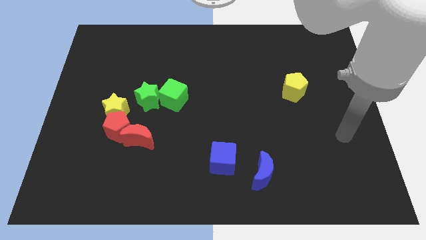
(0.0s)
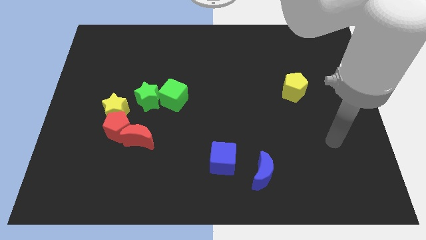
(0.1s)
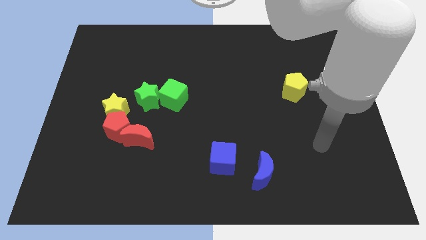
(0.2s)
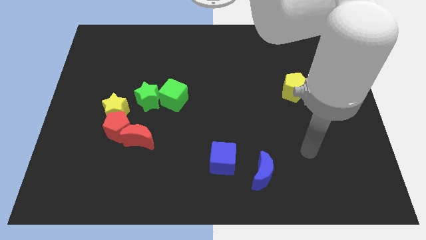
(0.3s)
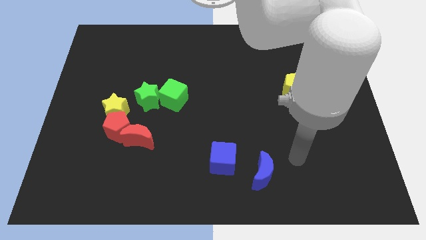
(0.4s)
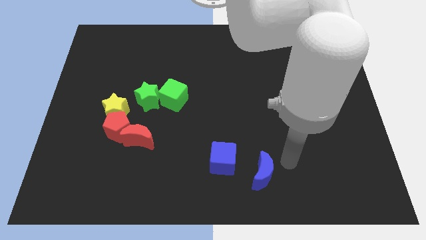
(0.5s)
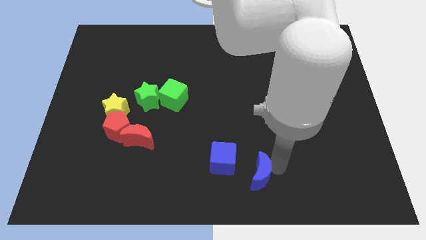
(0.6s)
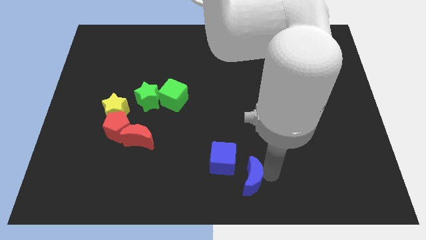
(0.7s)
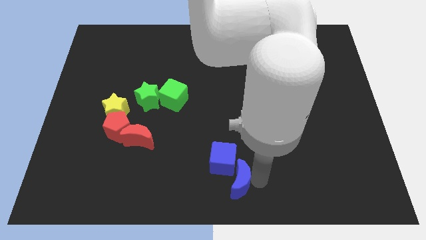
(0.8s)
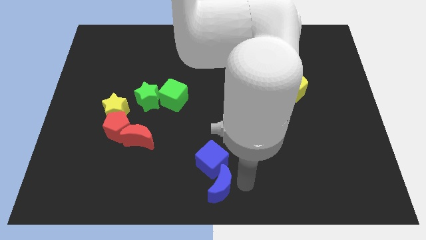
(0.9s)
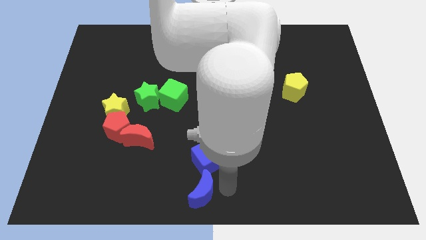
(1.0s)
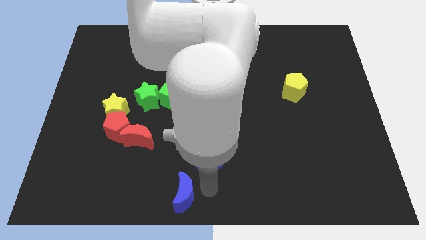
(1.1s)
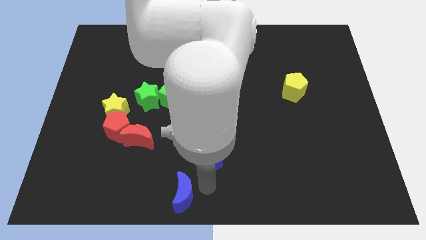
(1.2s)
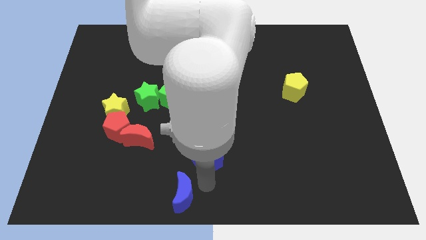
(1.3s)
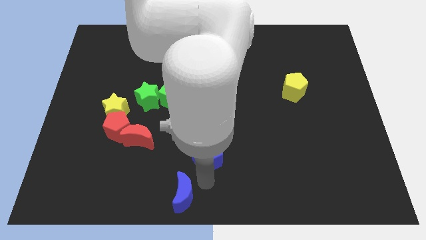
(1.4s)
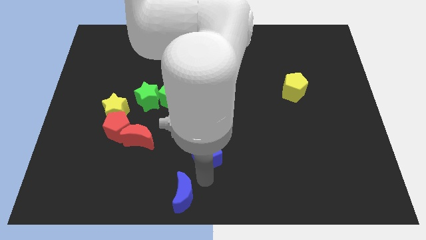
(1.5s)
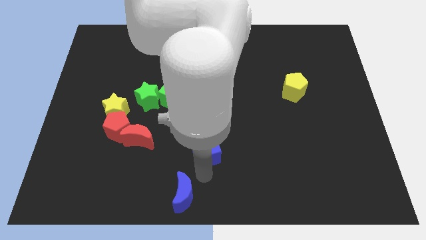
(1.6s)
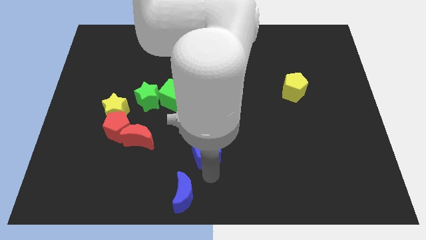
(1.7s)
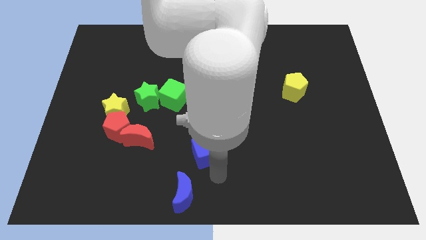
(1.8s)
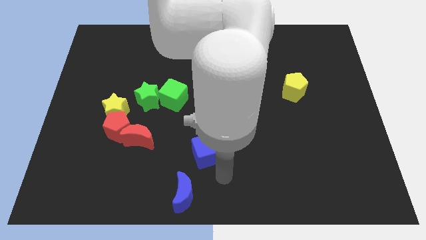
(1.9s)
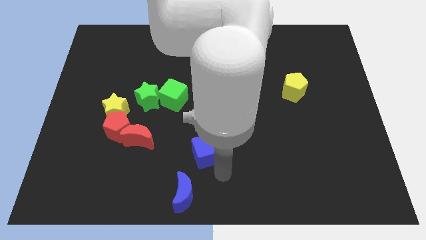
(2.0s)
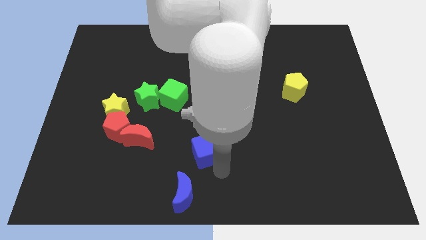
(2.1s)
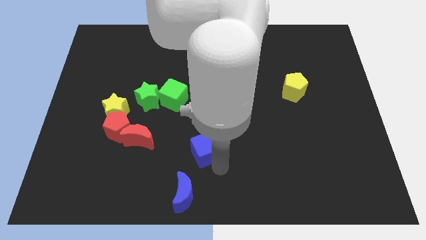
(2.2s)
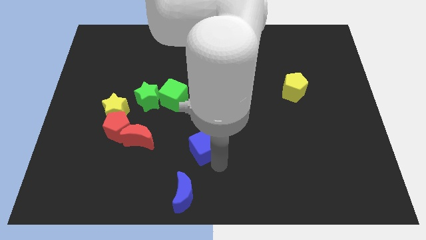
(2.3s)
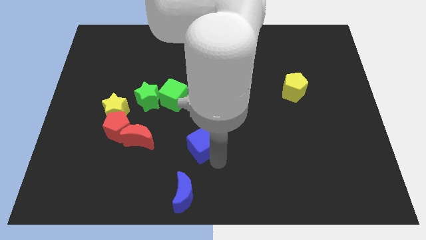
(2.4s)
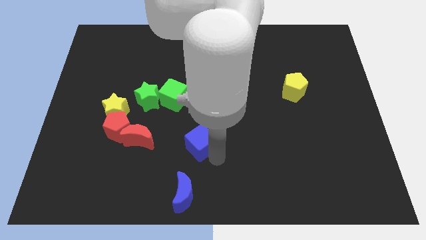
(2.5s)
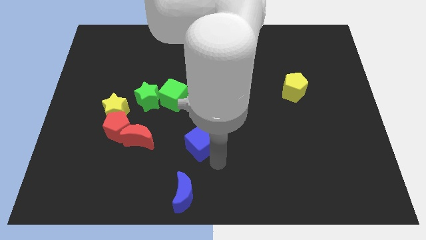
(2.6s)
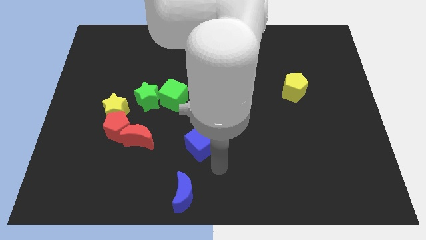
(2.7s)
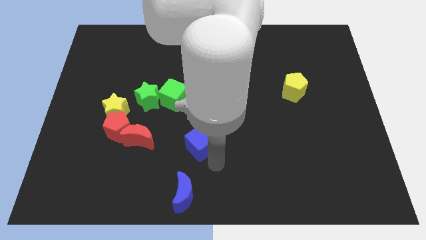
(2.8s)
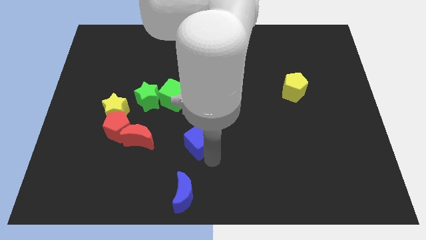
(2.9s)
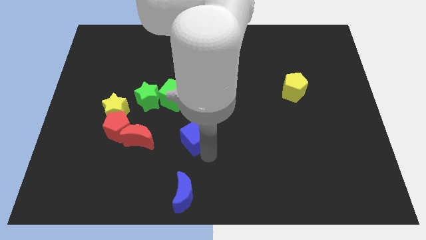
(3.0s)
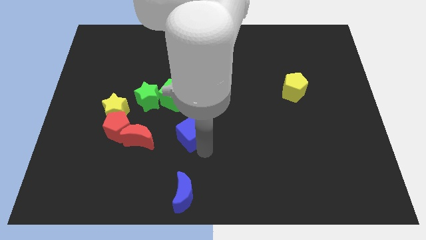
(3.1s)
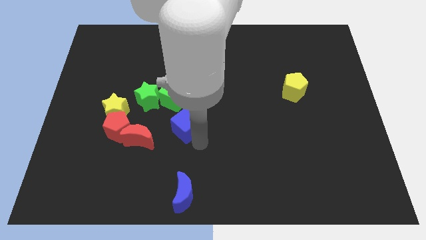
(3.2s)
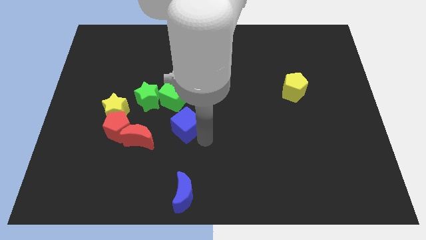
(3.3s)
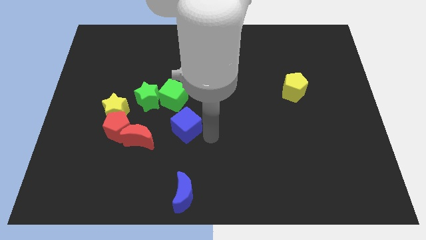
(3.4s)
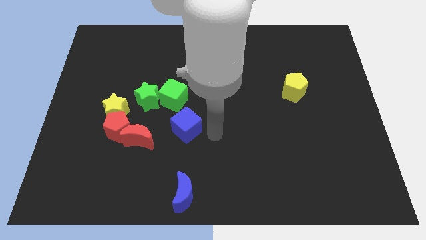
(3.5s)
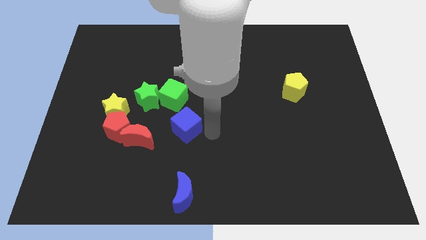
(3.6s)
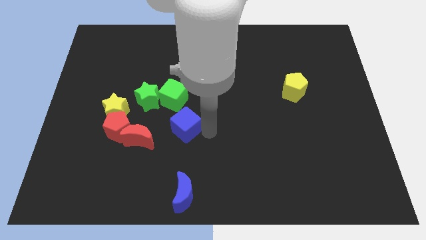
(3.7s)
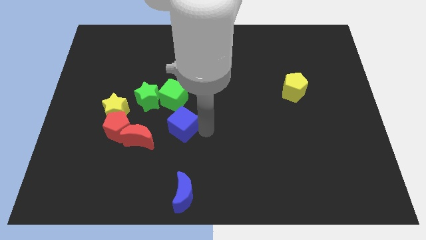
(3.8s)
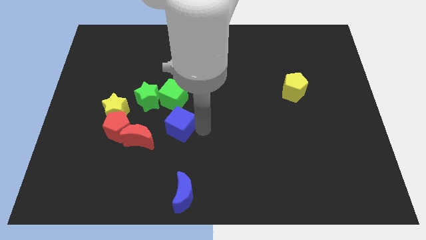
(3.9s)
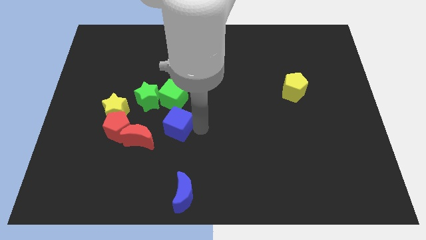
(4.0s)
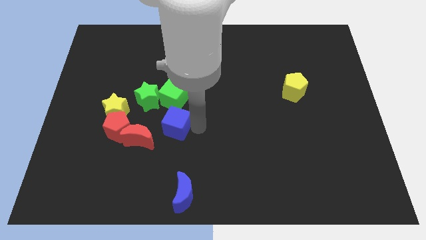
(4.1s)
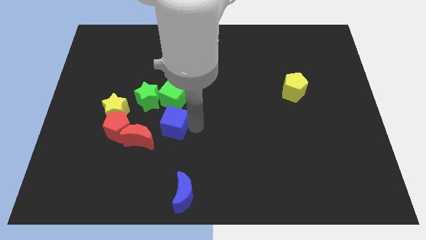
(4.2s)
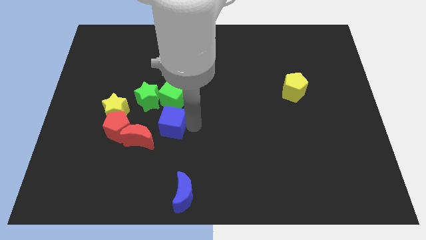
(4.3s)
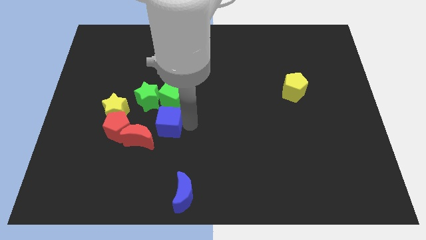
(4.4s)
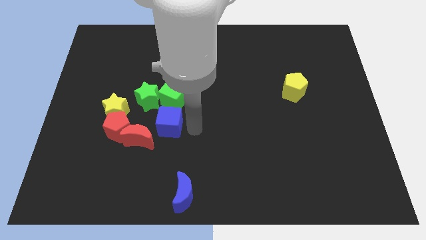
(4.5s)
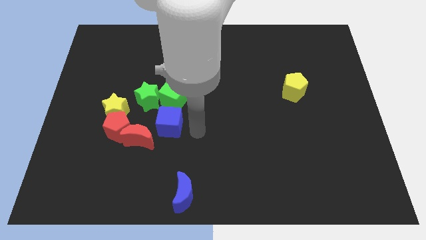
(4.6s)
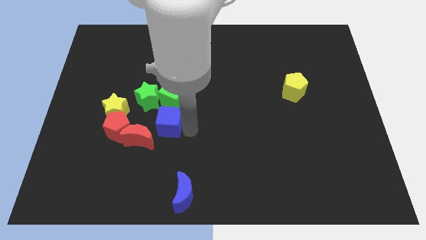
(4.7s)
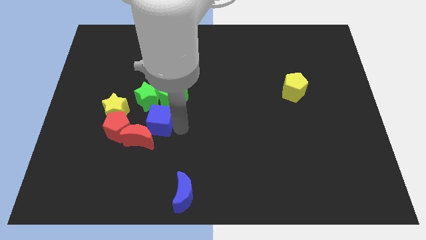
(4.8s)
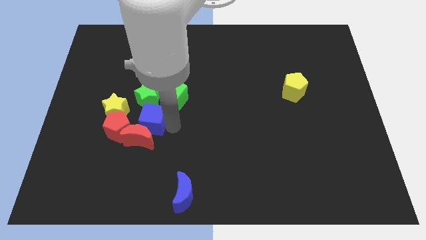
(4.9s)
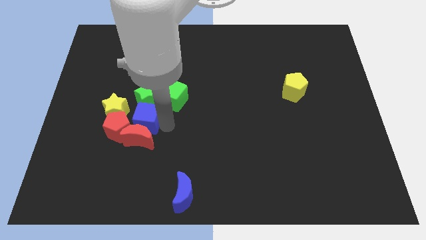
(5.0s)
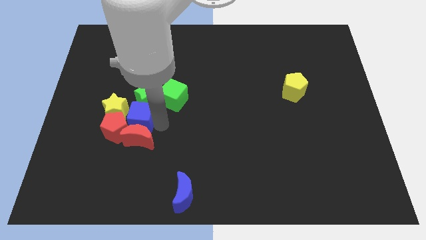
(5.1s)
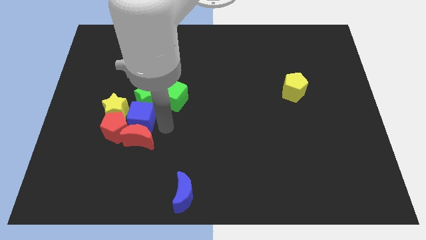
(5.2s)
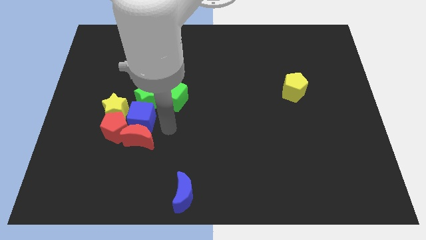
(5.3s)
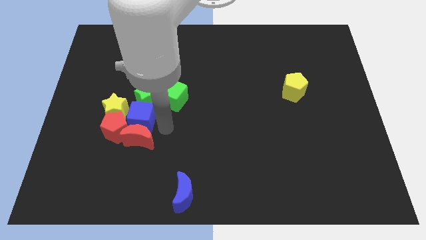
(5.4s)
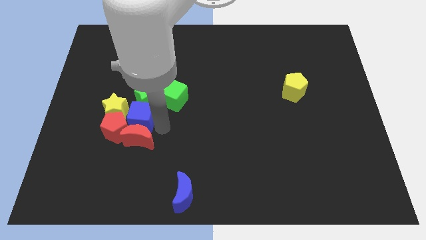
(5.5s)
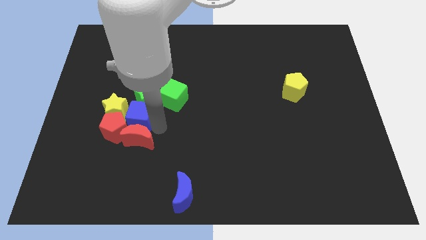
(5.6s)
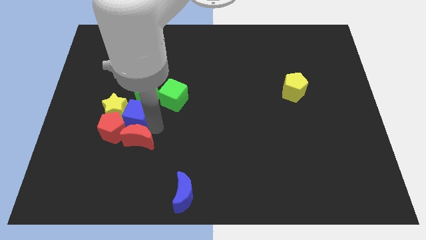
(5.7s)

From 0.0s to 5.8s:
move the blue cube towards the yellow star

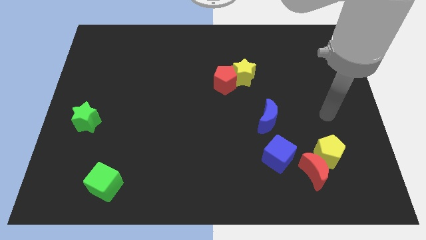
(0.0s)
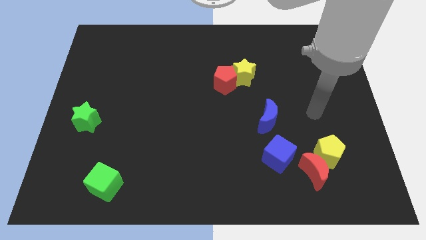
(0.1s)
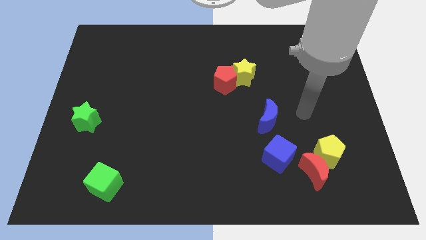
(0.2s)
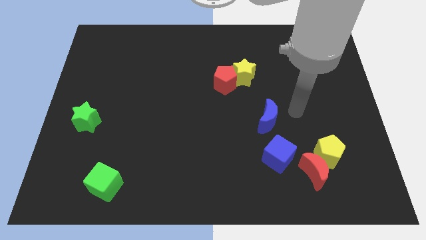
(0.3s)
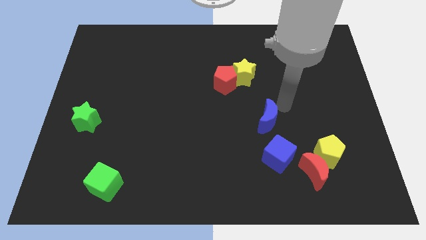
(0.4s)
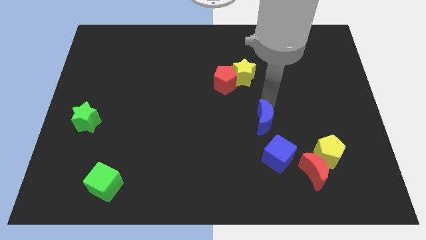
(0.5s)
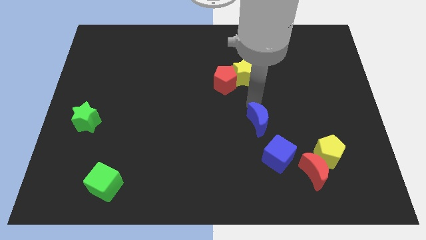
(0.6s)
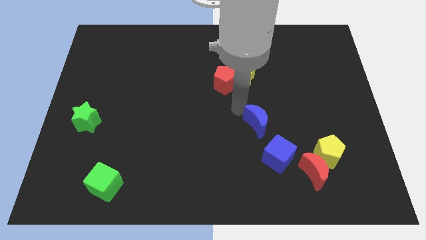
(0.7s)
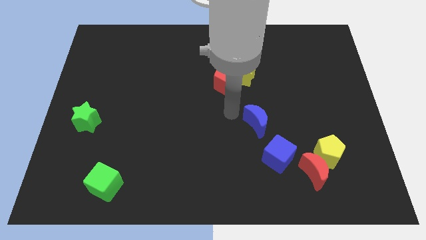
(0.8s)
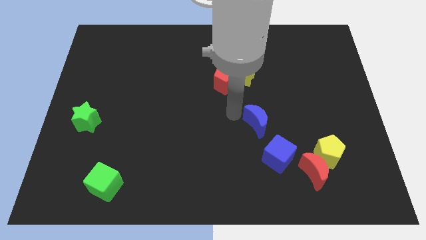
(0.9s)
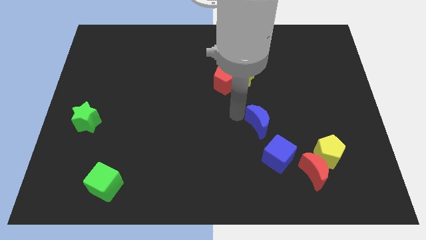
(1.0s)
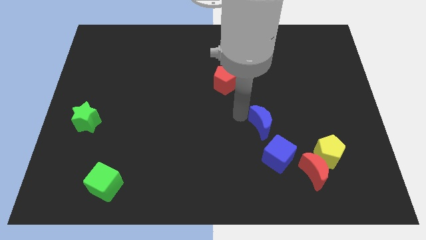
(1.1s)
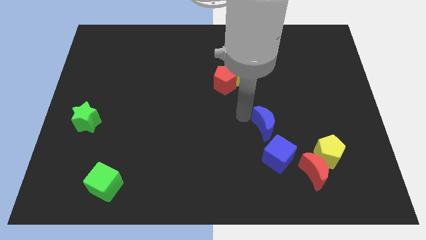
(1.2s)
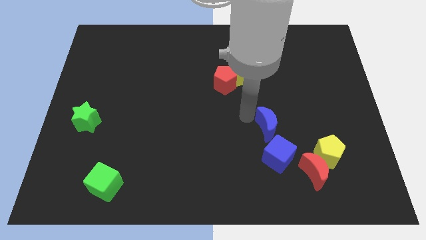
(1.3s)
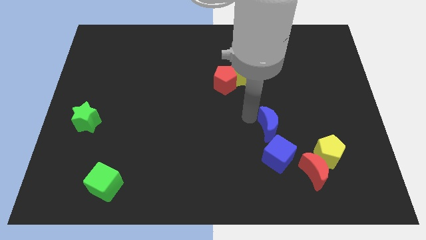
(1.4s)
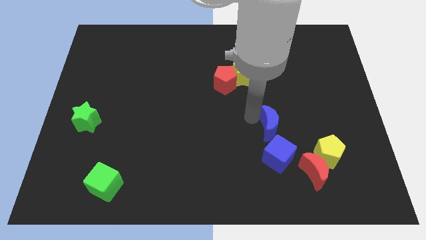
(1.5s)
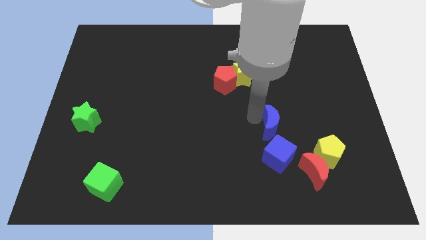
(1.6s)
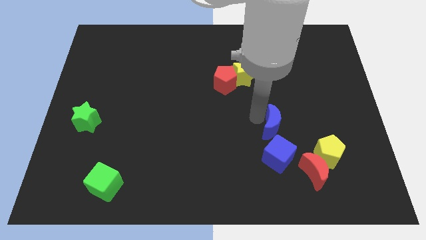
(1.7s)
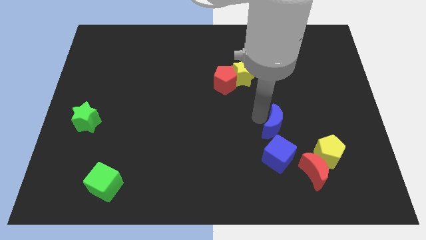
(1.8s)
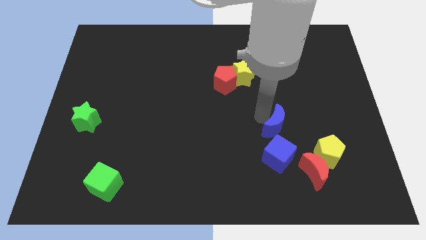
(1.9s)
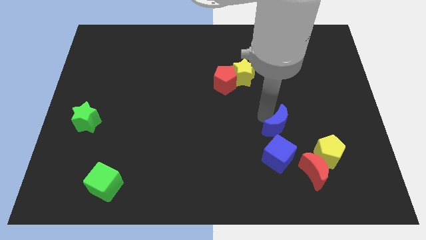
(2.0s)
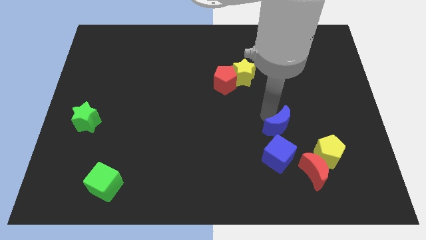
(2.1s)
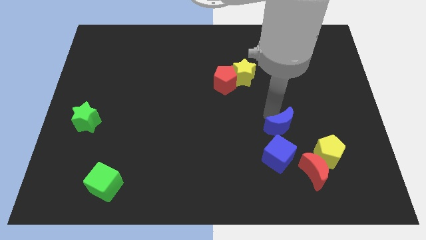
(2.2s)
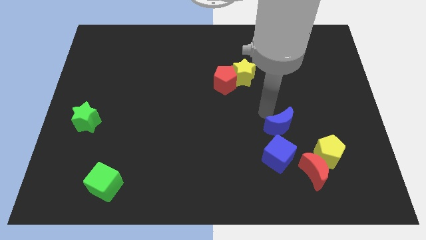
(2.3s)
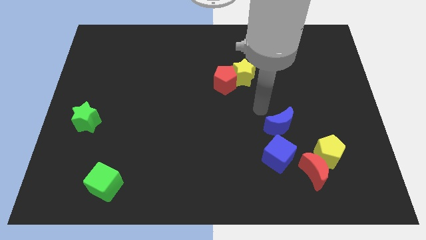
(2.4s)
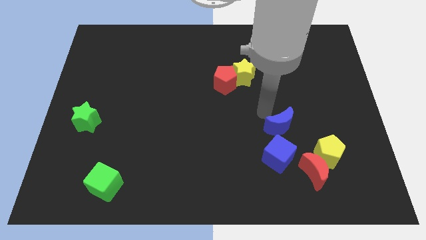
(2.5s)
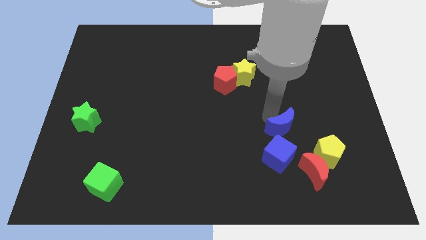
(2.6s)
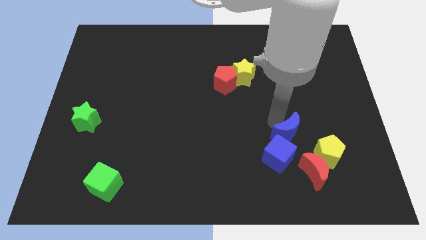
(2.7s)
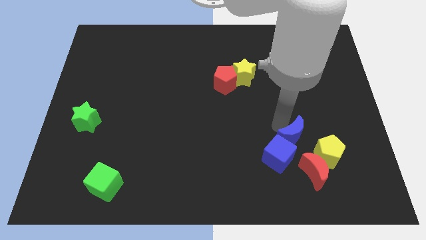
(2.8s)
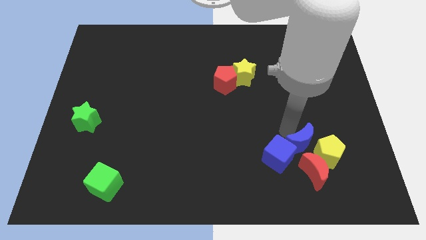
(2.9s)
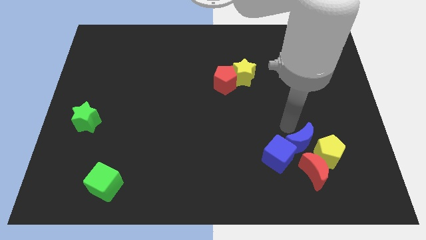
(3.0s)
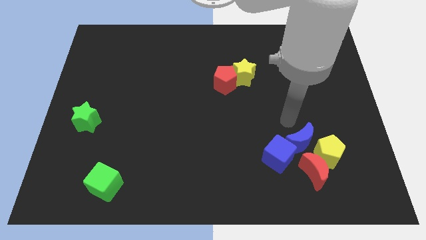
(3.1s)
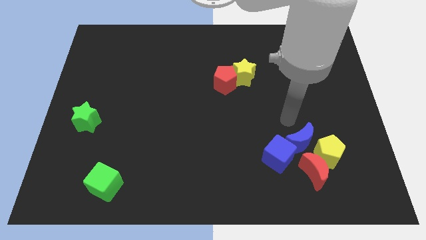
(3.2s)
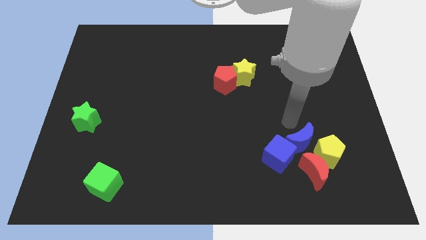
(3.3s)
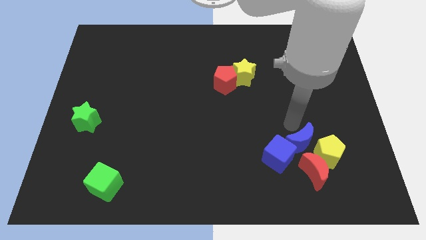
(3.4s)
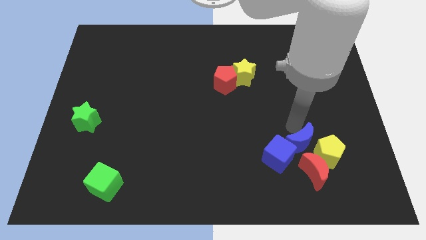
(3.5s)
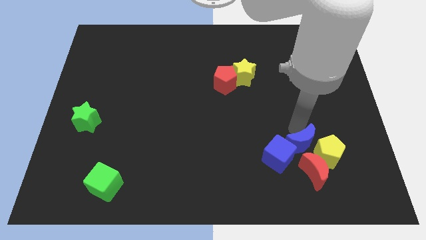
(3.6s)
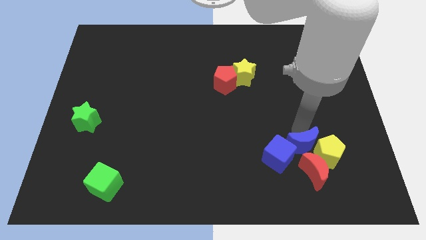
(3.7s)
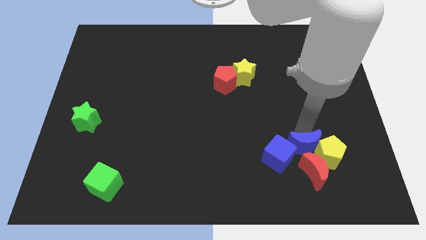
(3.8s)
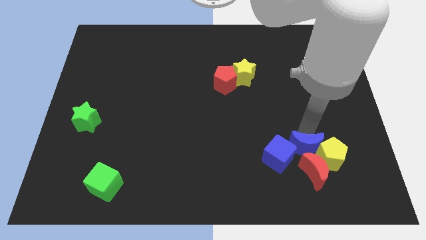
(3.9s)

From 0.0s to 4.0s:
push the blue moon close to the red moon
